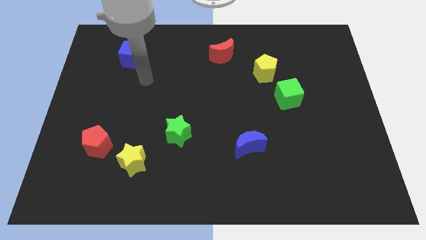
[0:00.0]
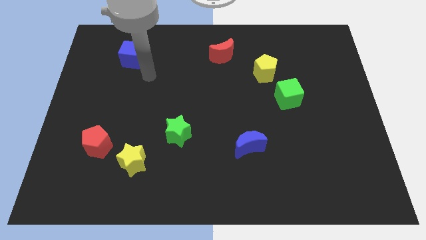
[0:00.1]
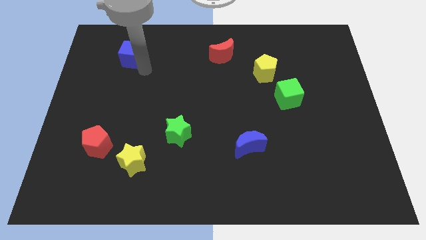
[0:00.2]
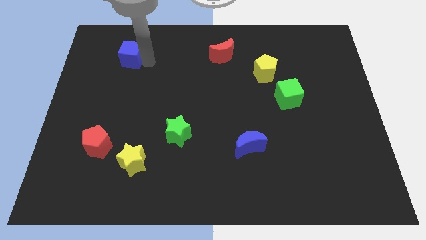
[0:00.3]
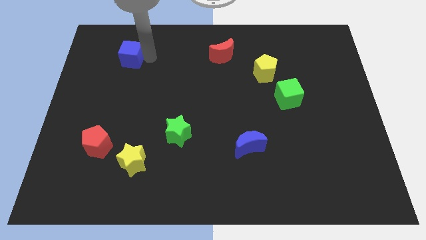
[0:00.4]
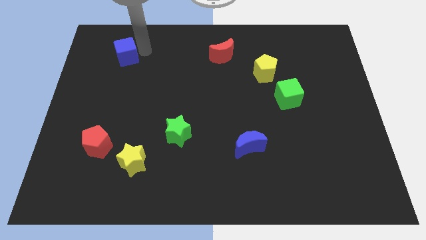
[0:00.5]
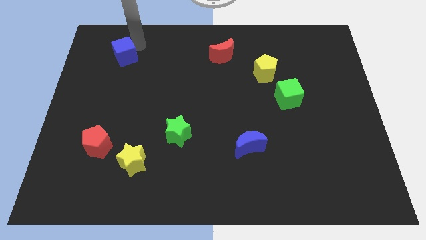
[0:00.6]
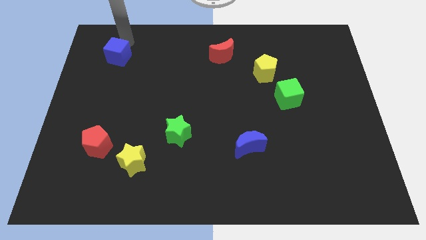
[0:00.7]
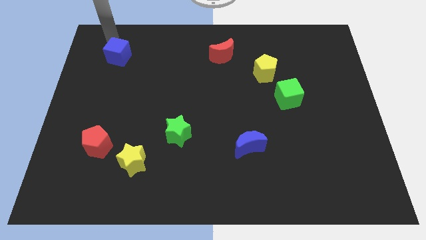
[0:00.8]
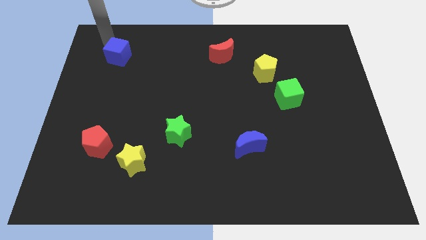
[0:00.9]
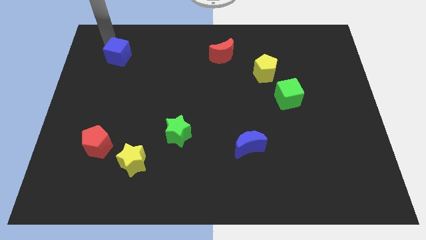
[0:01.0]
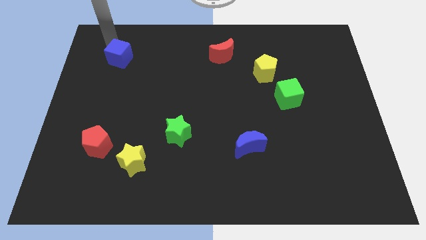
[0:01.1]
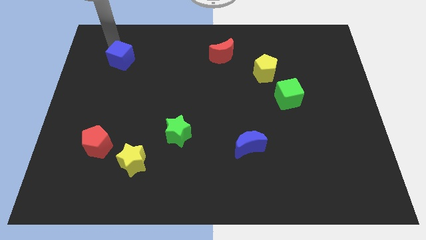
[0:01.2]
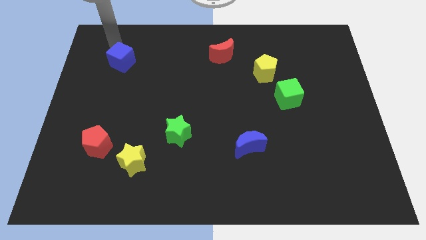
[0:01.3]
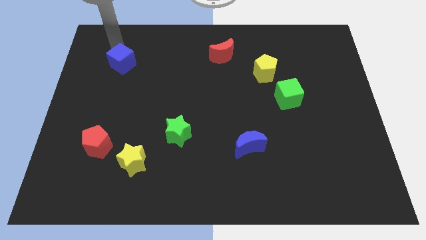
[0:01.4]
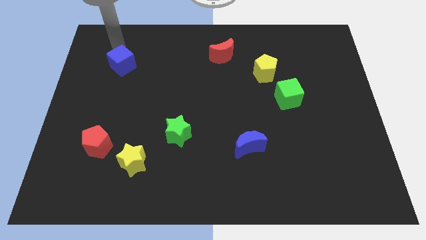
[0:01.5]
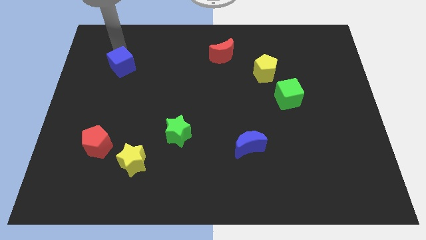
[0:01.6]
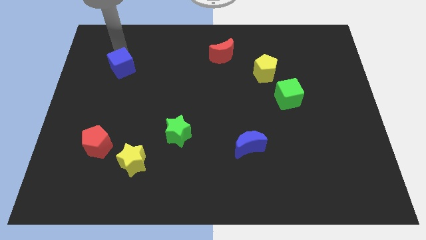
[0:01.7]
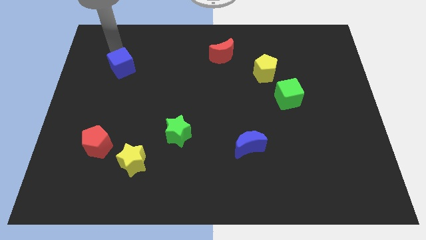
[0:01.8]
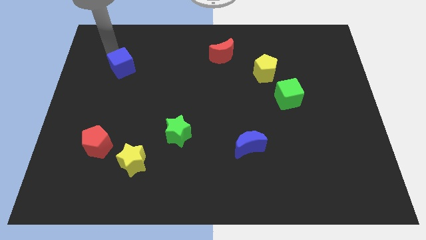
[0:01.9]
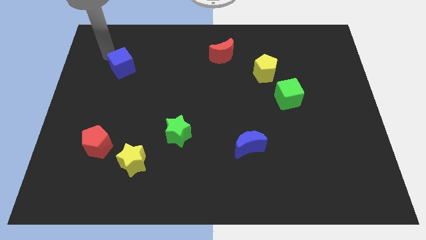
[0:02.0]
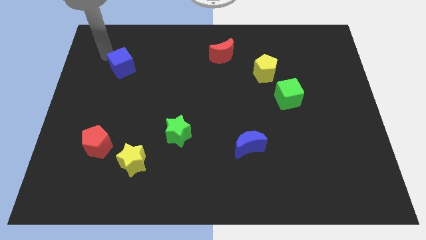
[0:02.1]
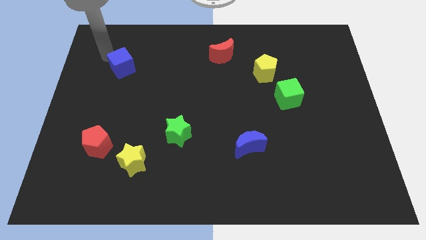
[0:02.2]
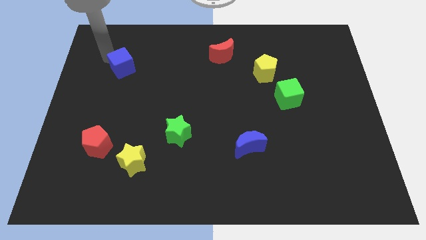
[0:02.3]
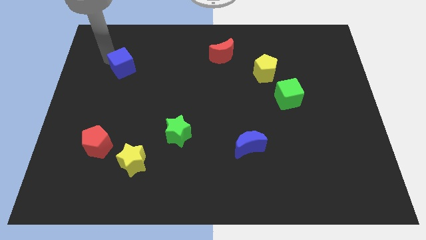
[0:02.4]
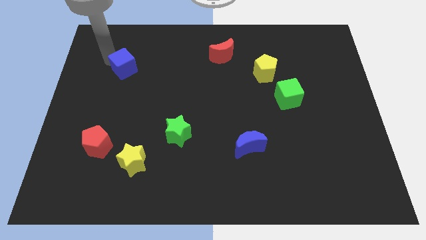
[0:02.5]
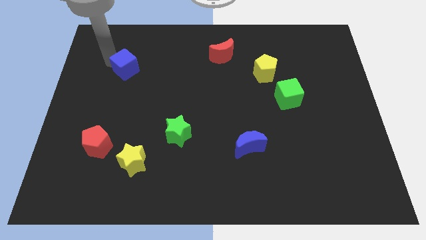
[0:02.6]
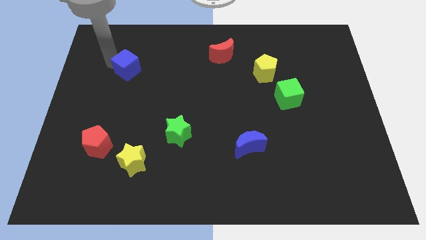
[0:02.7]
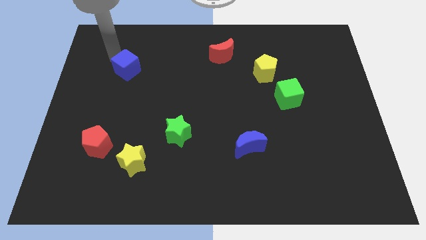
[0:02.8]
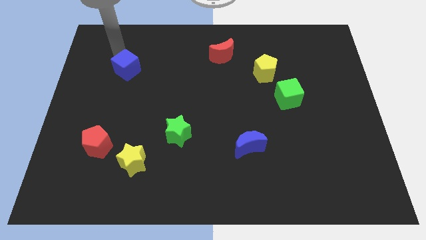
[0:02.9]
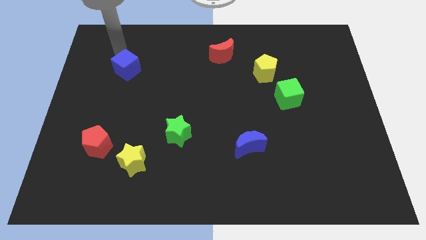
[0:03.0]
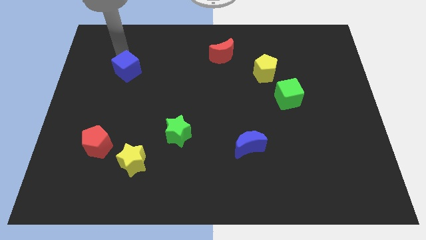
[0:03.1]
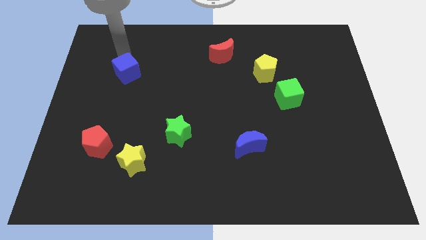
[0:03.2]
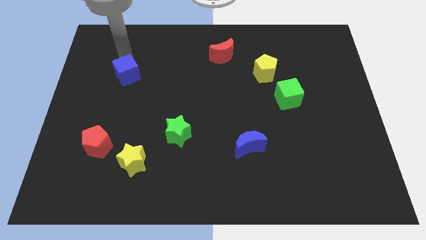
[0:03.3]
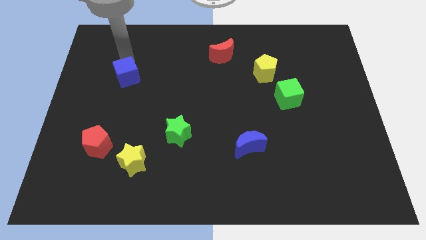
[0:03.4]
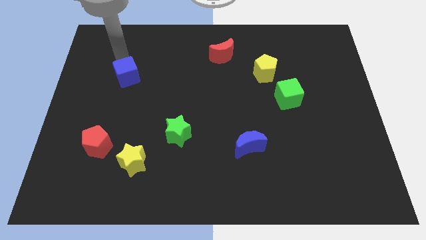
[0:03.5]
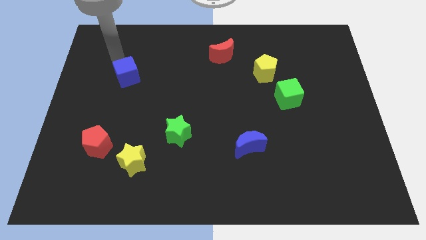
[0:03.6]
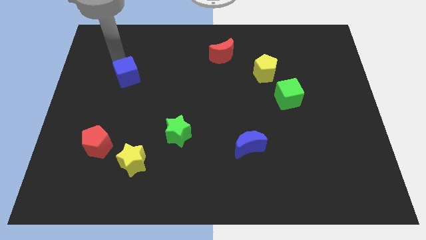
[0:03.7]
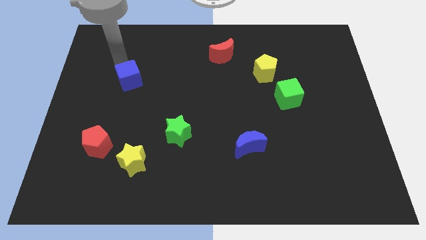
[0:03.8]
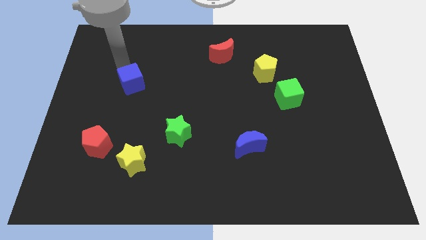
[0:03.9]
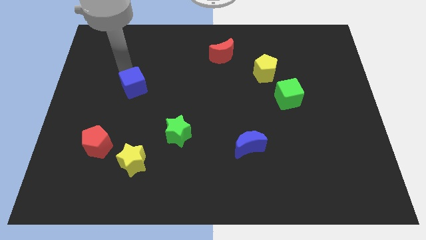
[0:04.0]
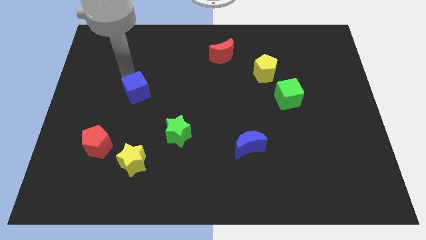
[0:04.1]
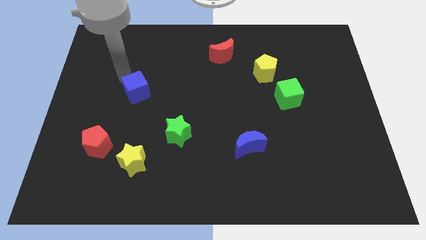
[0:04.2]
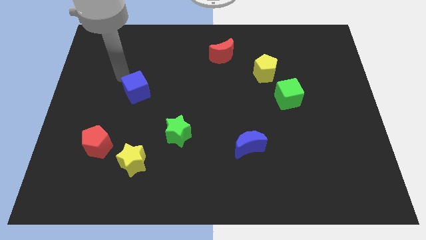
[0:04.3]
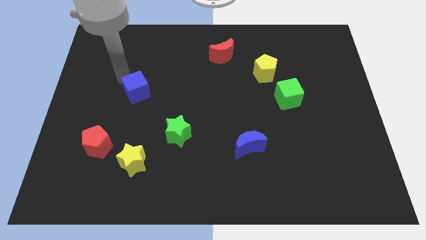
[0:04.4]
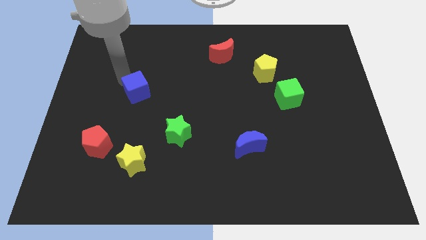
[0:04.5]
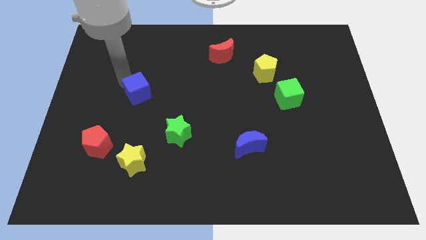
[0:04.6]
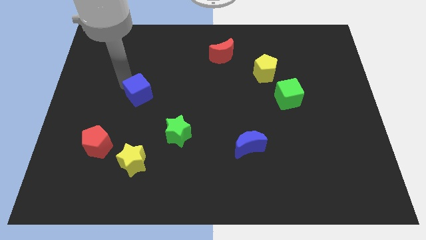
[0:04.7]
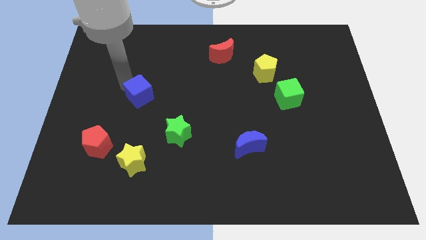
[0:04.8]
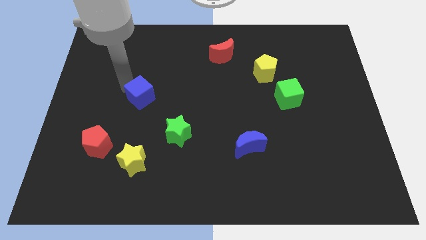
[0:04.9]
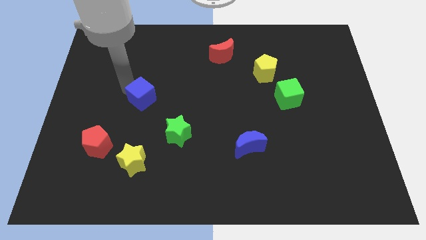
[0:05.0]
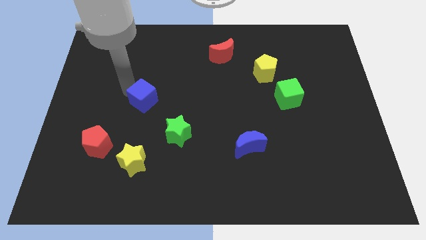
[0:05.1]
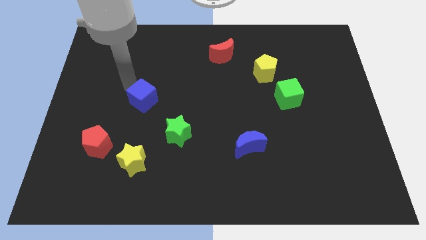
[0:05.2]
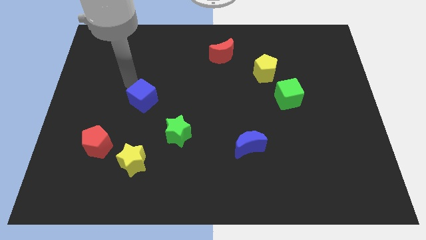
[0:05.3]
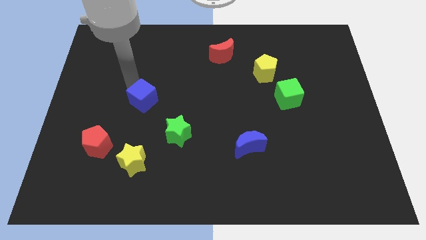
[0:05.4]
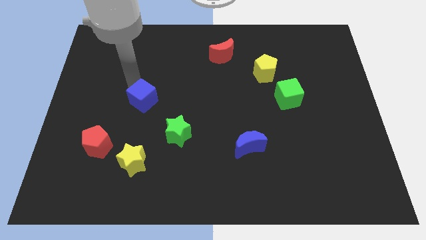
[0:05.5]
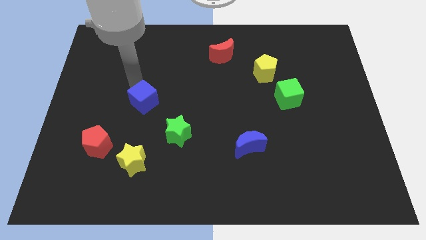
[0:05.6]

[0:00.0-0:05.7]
put the blue cube diagonally up and to the left of the green star

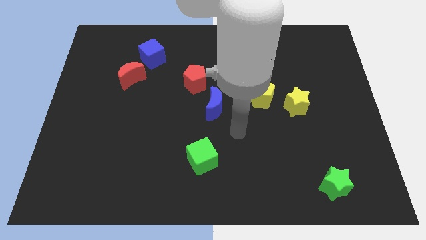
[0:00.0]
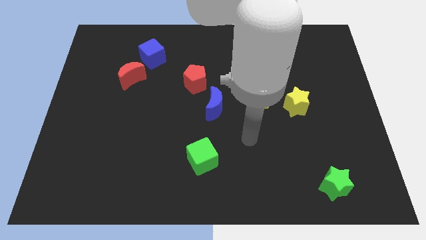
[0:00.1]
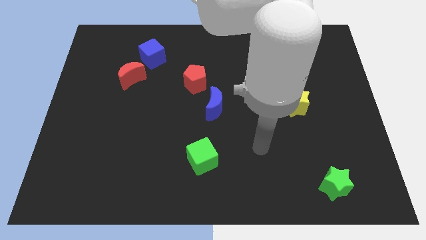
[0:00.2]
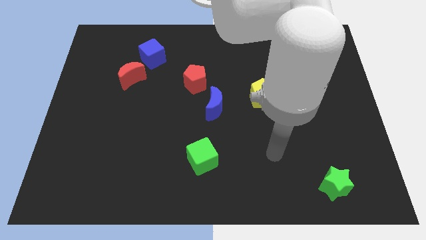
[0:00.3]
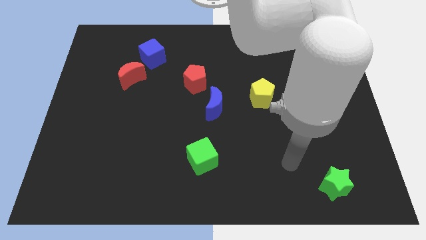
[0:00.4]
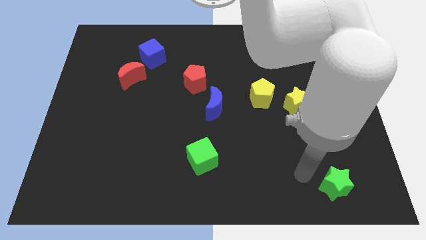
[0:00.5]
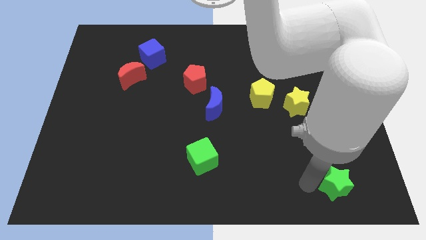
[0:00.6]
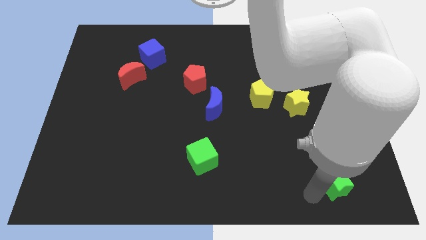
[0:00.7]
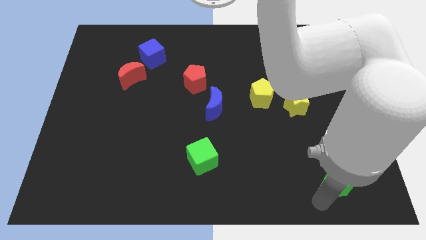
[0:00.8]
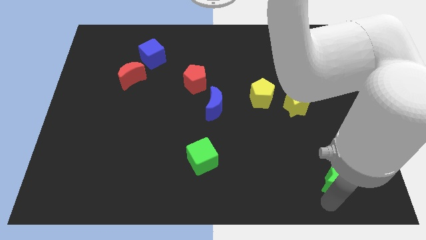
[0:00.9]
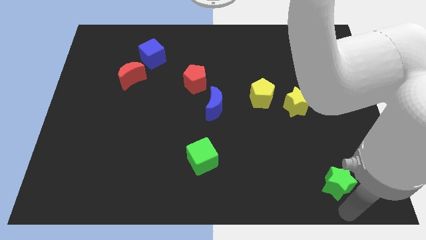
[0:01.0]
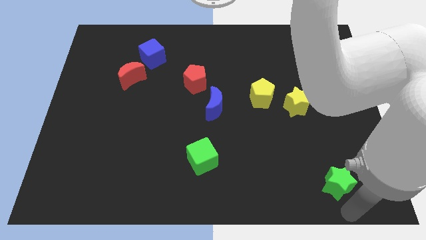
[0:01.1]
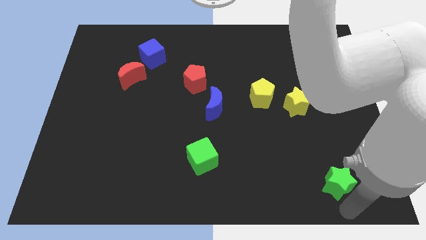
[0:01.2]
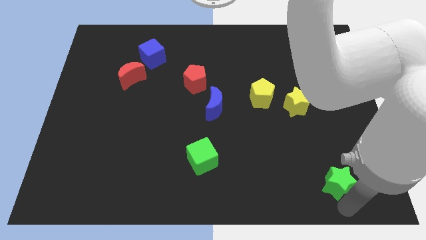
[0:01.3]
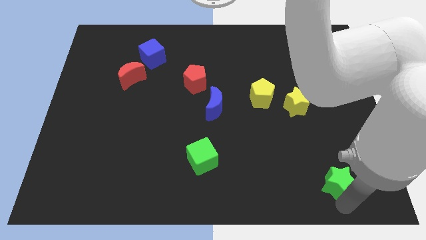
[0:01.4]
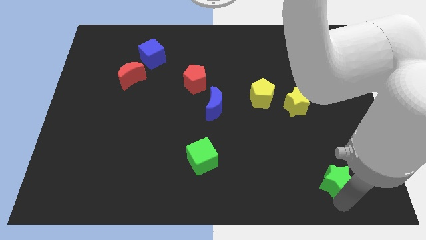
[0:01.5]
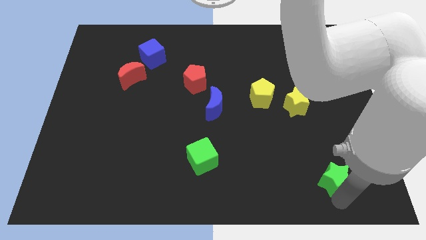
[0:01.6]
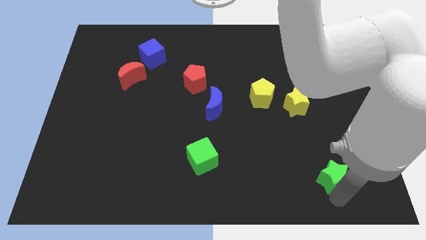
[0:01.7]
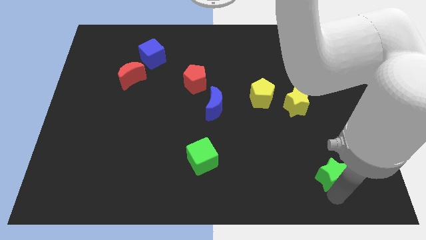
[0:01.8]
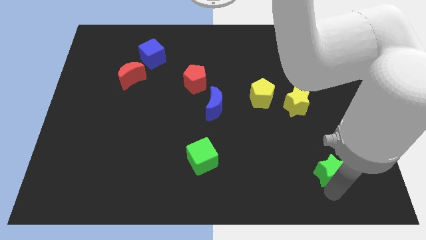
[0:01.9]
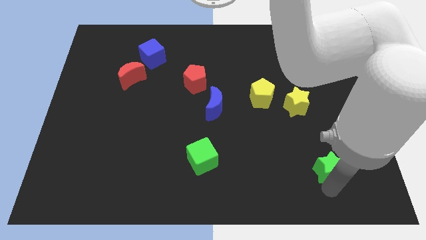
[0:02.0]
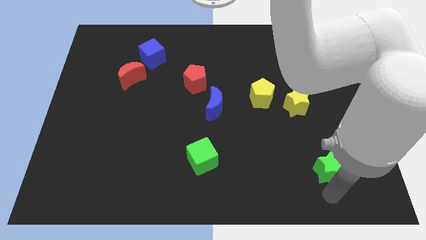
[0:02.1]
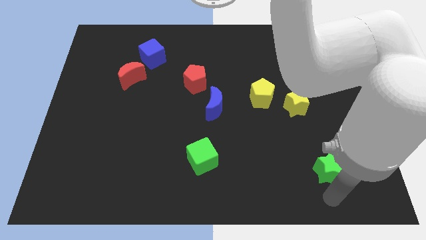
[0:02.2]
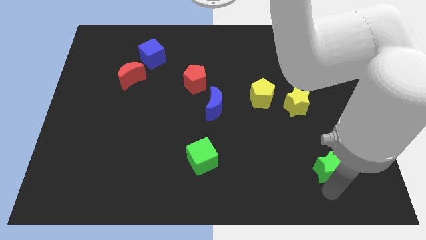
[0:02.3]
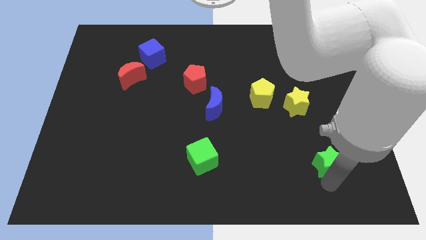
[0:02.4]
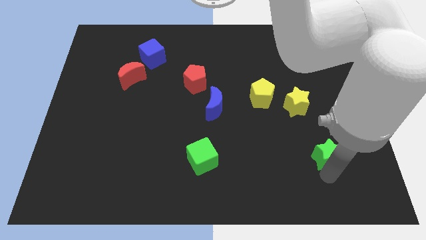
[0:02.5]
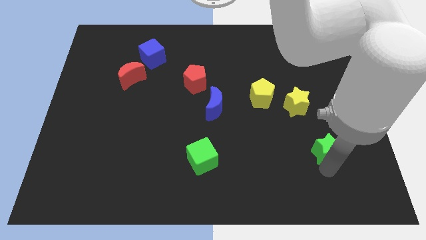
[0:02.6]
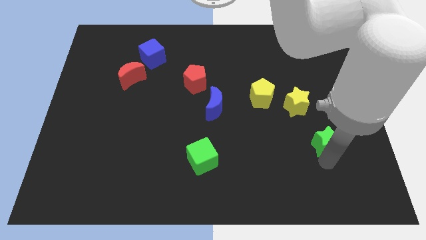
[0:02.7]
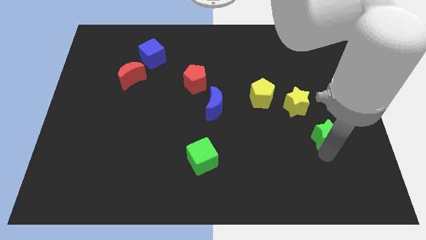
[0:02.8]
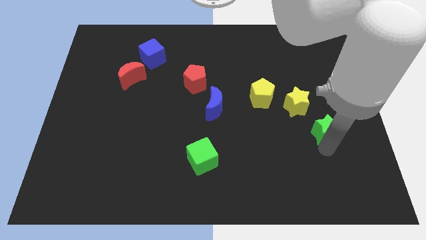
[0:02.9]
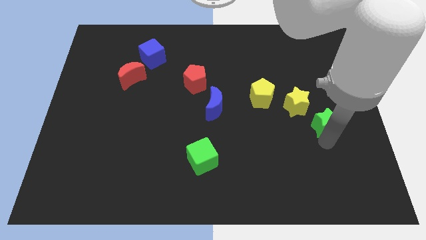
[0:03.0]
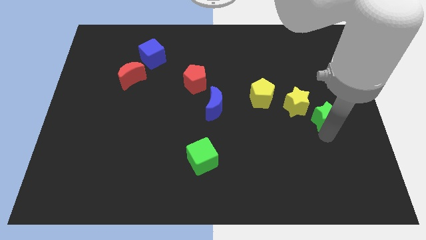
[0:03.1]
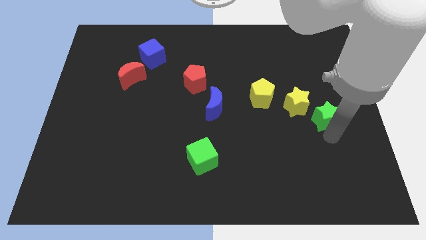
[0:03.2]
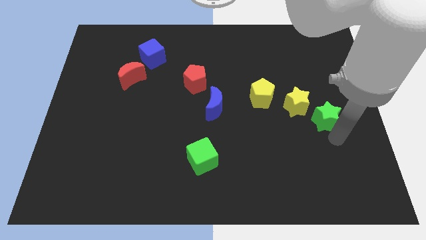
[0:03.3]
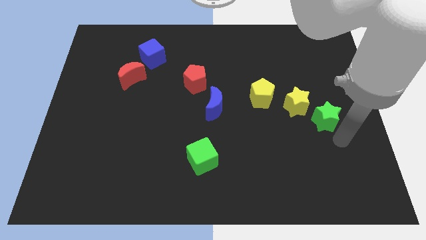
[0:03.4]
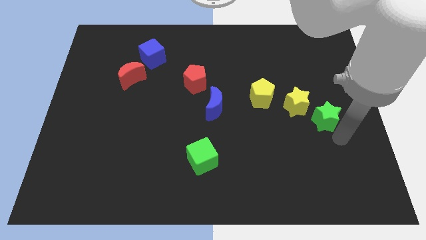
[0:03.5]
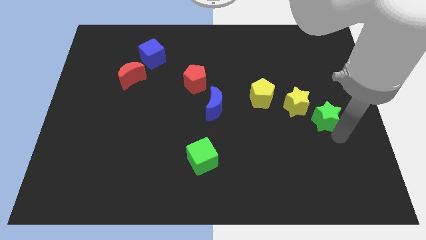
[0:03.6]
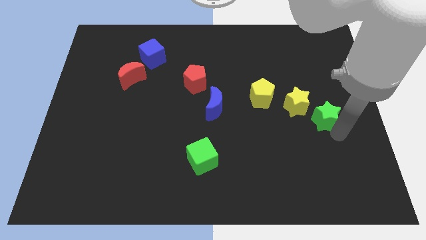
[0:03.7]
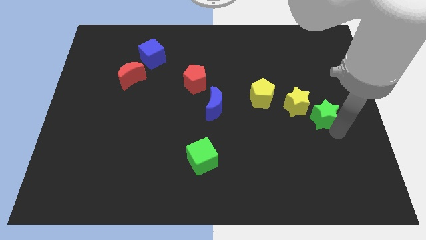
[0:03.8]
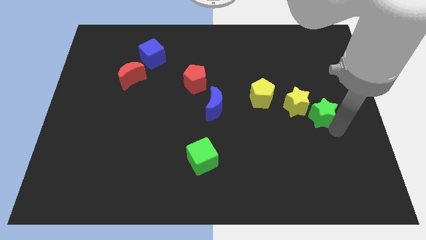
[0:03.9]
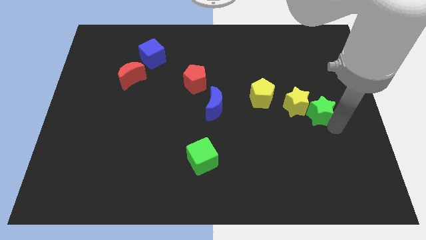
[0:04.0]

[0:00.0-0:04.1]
move the green star to the right side of the yellow pentagon
